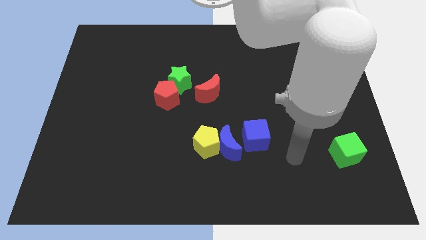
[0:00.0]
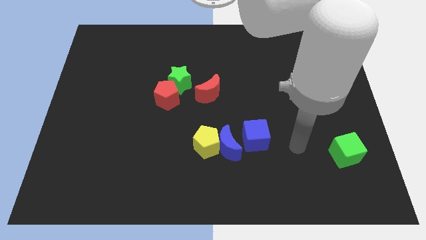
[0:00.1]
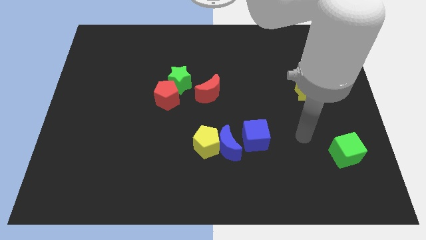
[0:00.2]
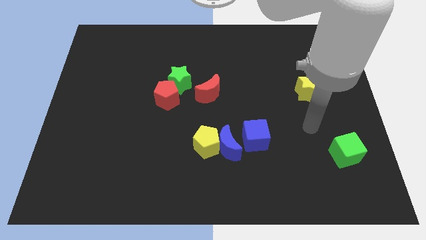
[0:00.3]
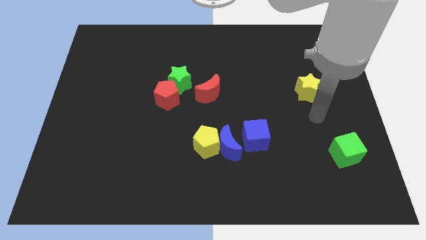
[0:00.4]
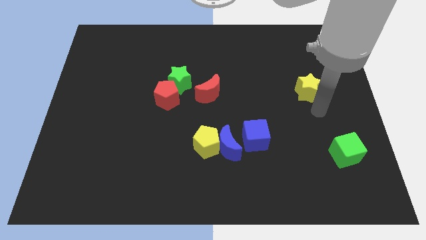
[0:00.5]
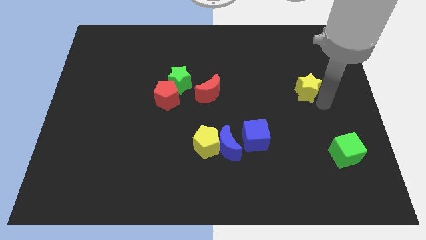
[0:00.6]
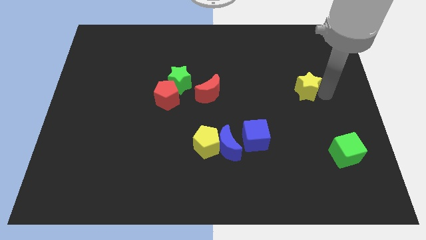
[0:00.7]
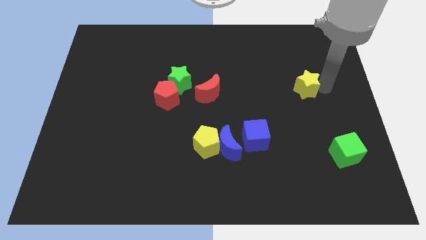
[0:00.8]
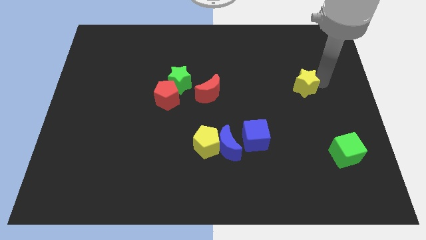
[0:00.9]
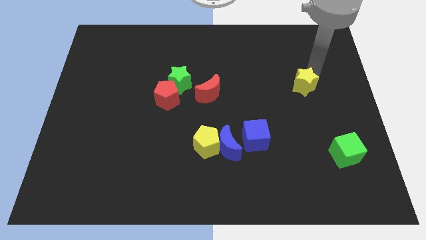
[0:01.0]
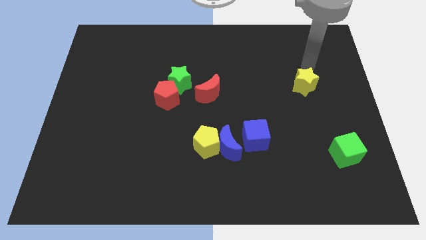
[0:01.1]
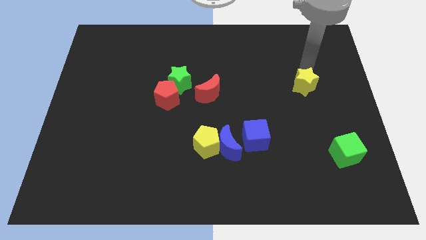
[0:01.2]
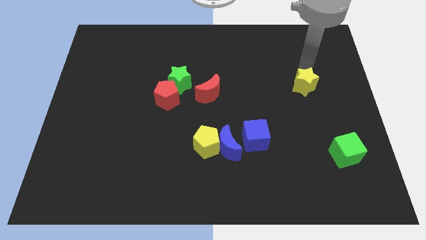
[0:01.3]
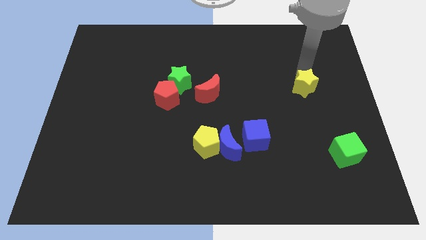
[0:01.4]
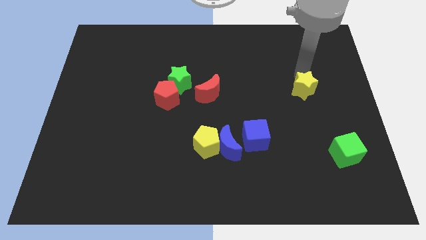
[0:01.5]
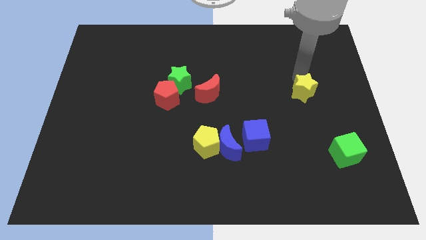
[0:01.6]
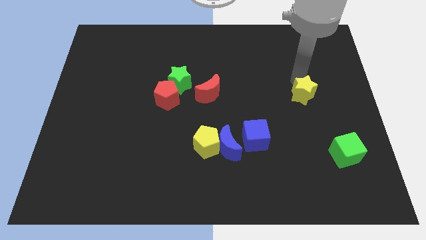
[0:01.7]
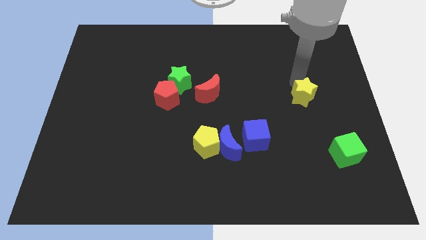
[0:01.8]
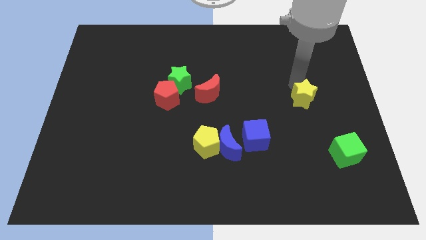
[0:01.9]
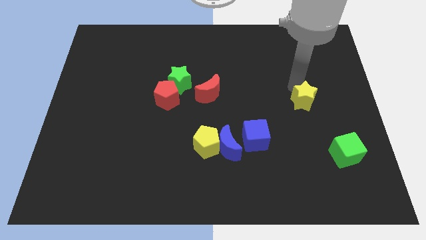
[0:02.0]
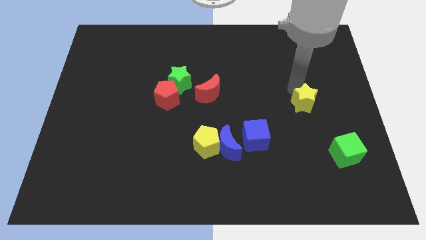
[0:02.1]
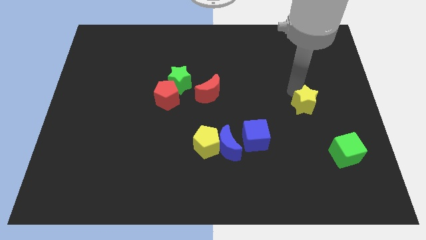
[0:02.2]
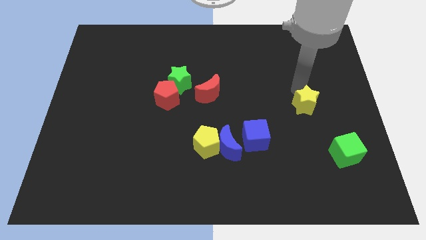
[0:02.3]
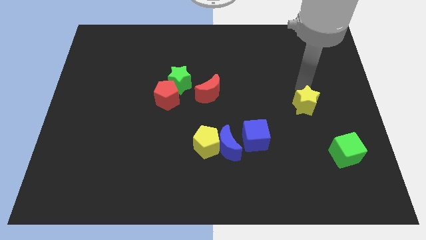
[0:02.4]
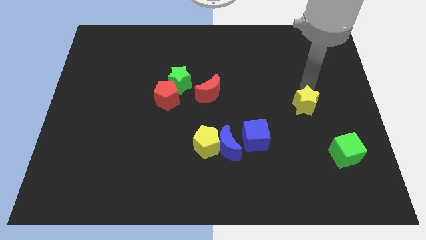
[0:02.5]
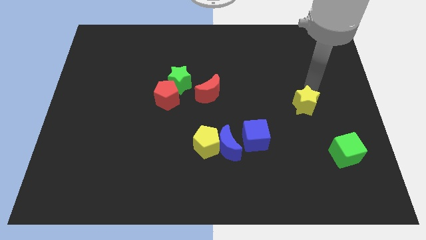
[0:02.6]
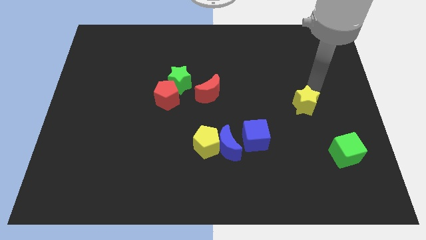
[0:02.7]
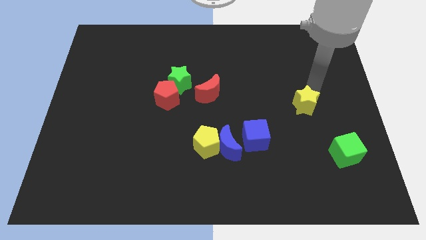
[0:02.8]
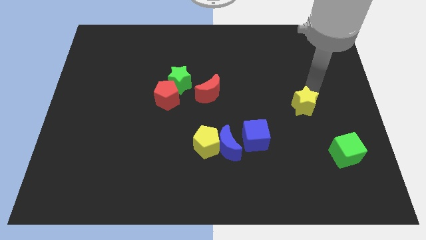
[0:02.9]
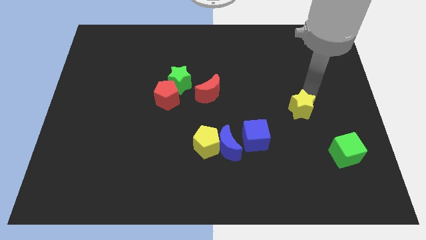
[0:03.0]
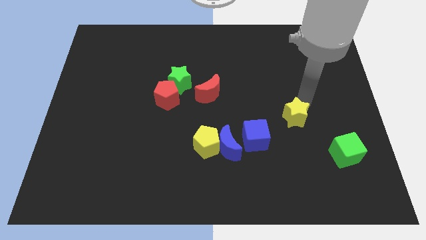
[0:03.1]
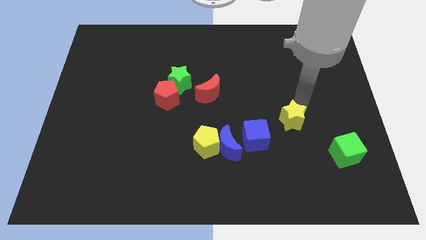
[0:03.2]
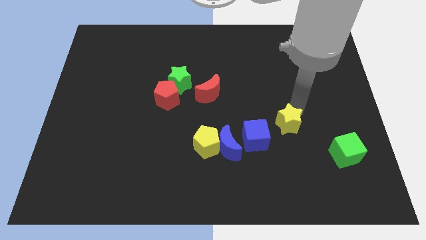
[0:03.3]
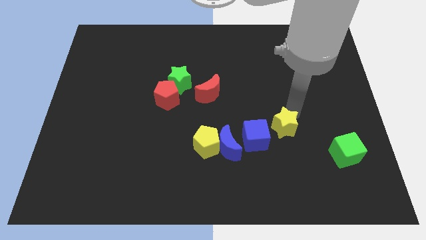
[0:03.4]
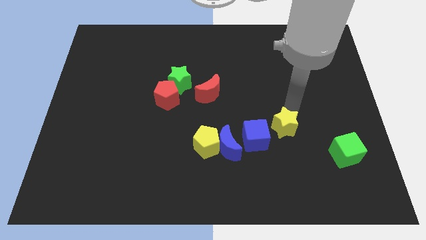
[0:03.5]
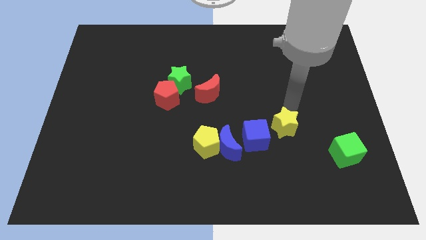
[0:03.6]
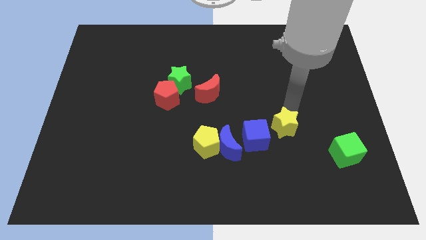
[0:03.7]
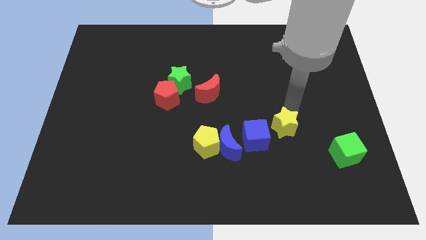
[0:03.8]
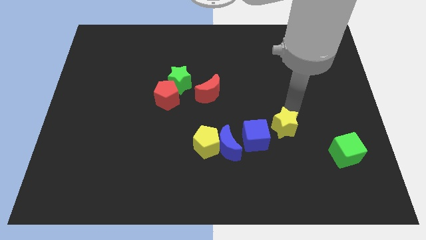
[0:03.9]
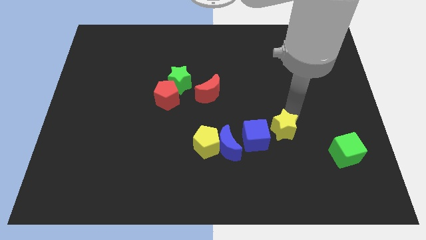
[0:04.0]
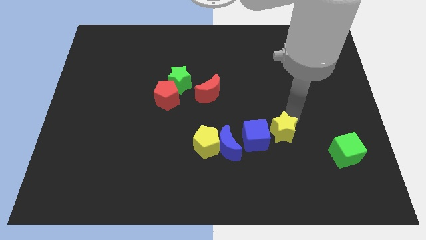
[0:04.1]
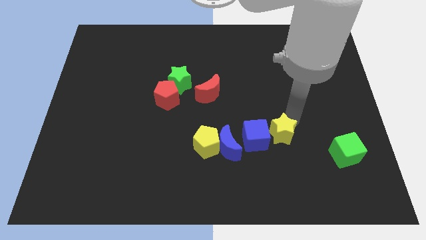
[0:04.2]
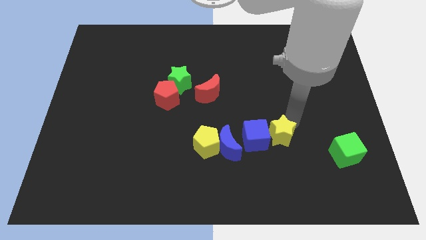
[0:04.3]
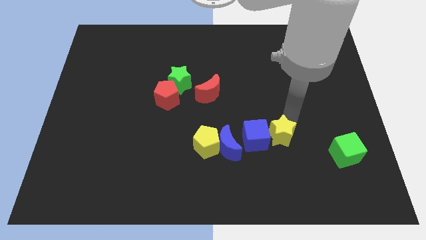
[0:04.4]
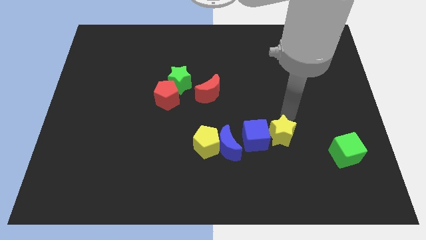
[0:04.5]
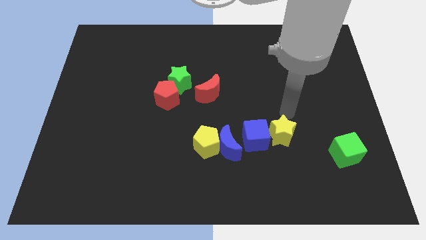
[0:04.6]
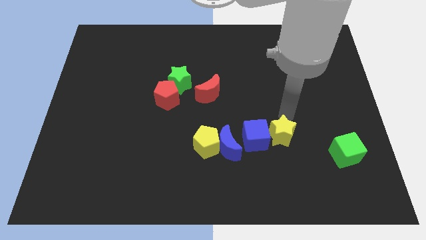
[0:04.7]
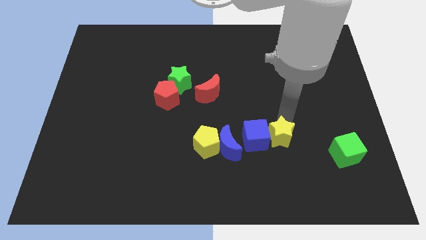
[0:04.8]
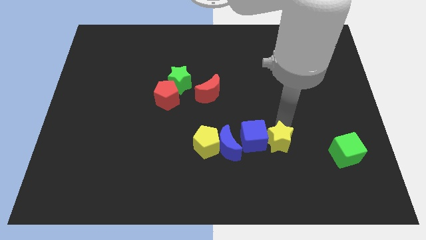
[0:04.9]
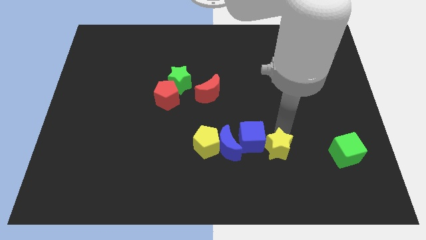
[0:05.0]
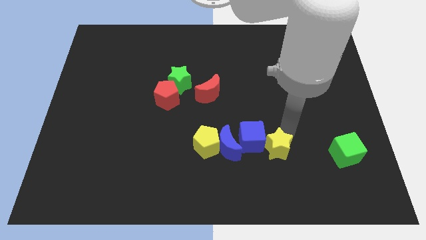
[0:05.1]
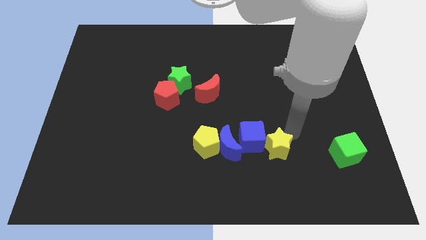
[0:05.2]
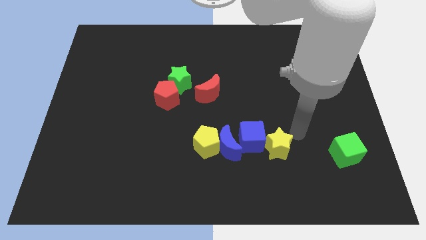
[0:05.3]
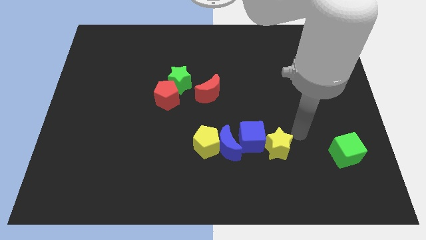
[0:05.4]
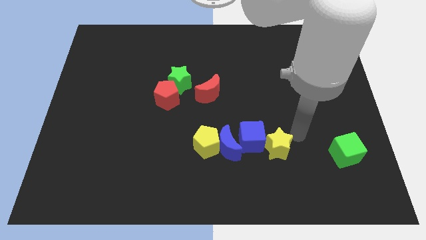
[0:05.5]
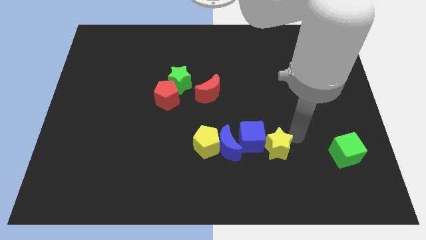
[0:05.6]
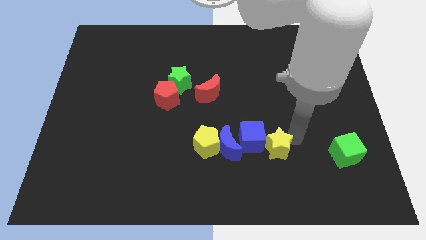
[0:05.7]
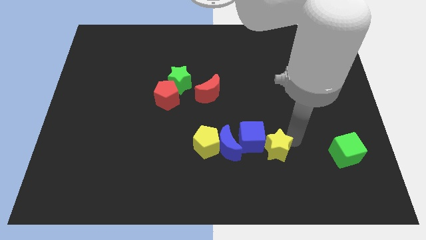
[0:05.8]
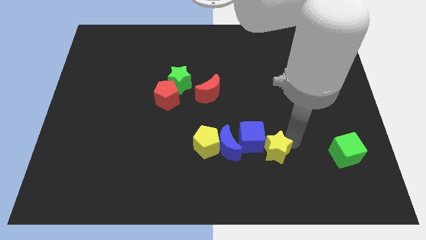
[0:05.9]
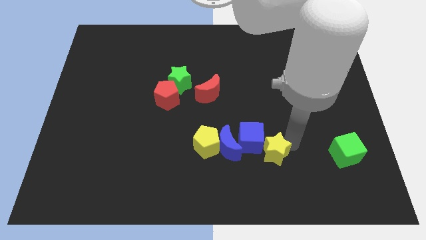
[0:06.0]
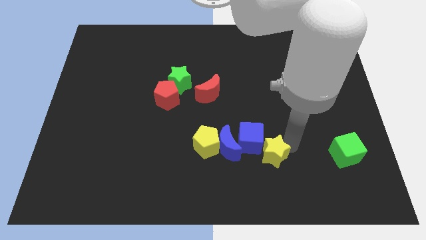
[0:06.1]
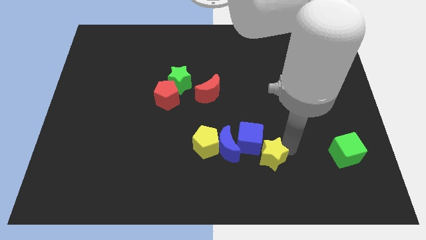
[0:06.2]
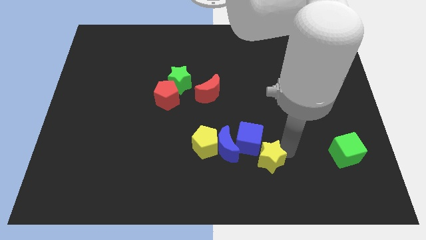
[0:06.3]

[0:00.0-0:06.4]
slide the yellow star diagonally down and left

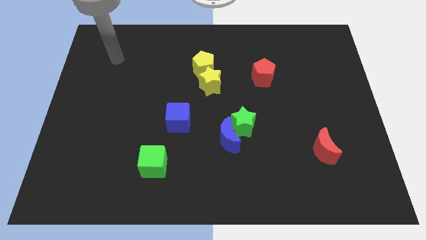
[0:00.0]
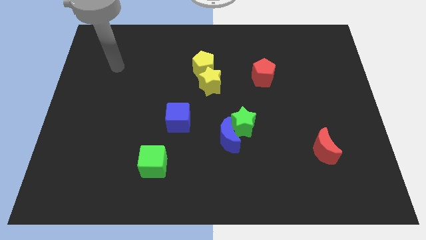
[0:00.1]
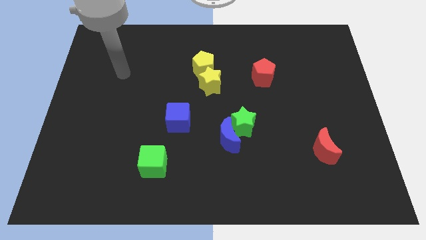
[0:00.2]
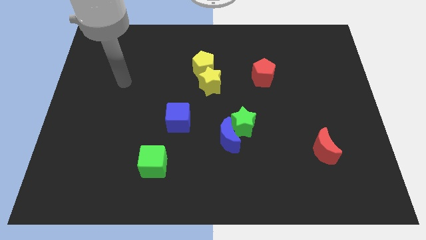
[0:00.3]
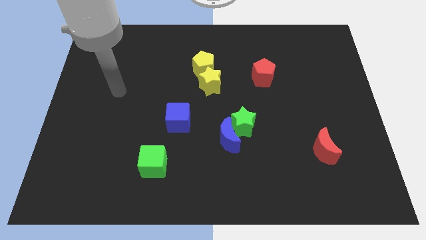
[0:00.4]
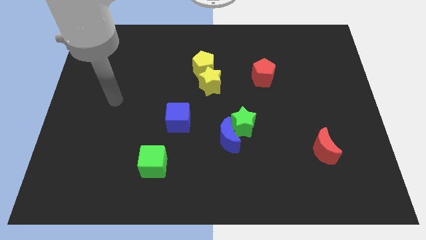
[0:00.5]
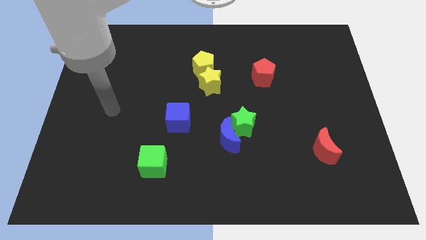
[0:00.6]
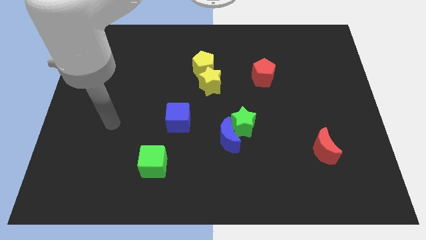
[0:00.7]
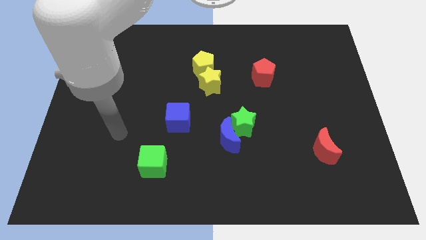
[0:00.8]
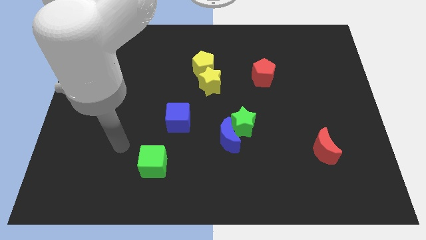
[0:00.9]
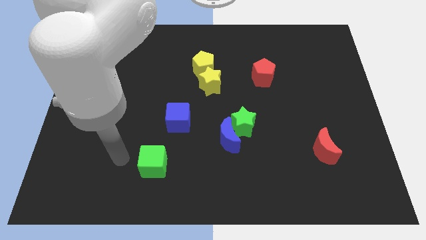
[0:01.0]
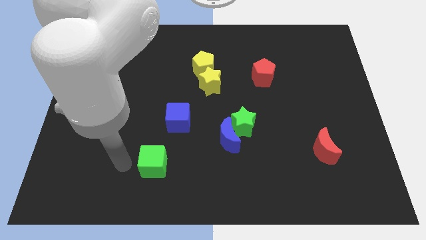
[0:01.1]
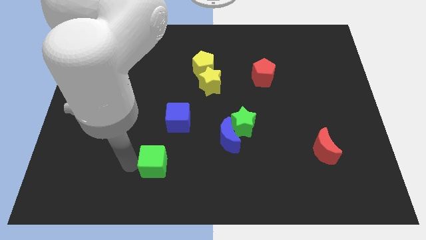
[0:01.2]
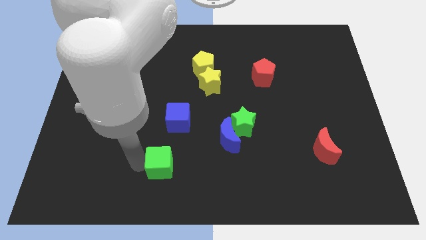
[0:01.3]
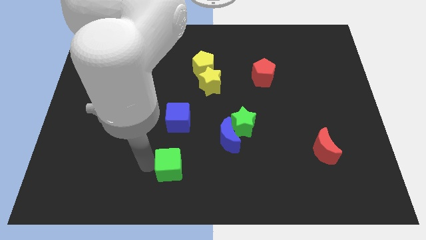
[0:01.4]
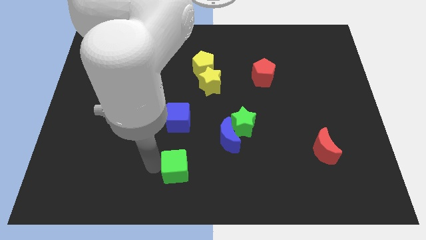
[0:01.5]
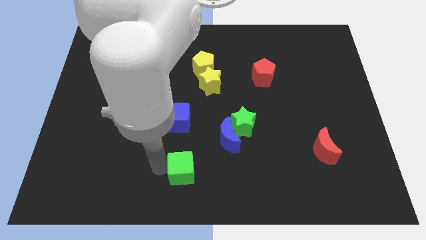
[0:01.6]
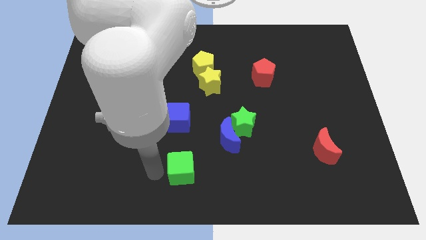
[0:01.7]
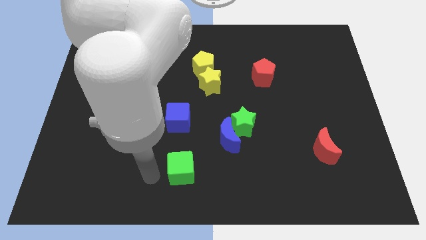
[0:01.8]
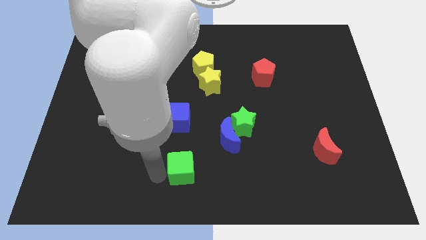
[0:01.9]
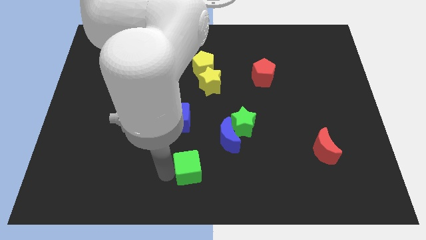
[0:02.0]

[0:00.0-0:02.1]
slightly push the green cube to the right
